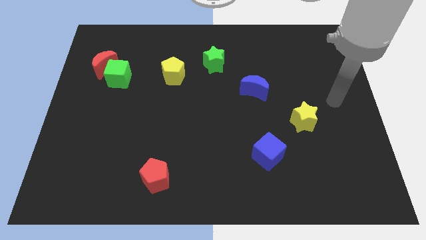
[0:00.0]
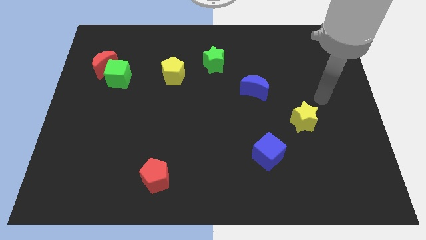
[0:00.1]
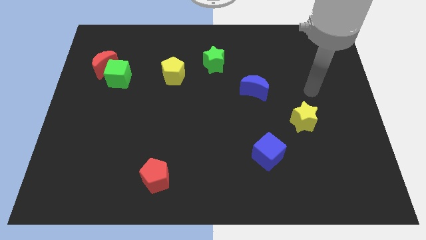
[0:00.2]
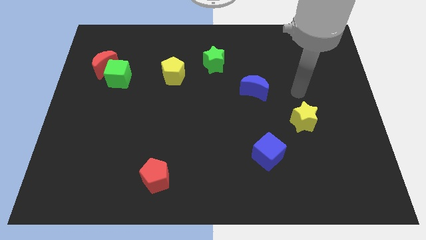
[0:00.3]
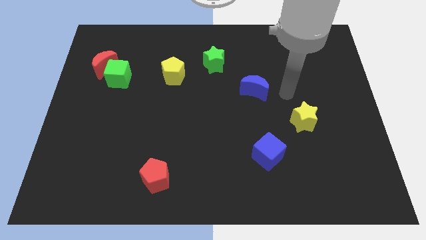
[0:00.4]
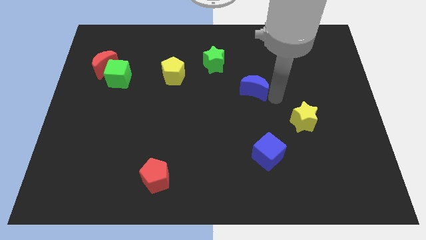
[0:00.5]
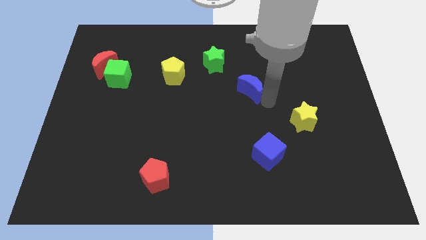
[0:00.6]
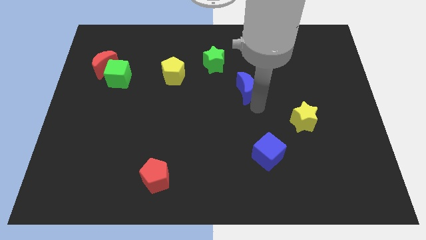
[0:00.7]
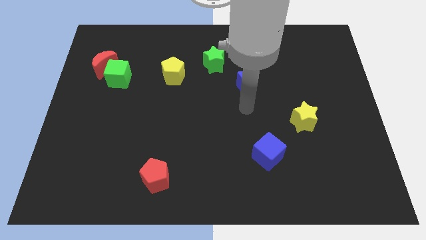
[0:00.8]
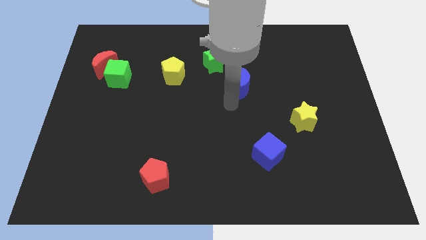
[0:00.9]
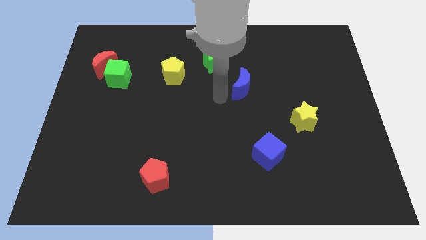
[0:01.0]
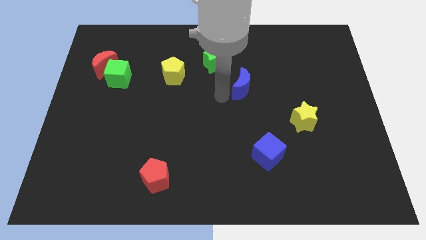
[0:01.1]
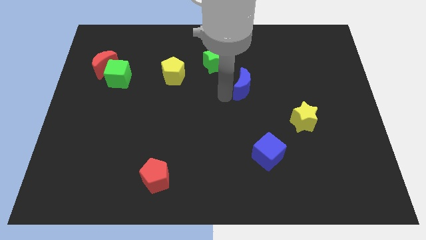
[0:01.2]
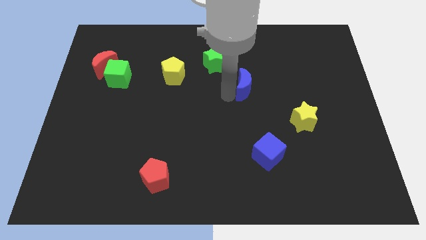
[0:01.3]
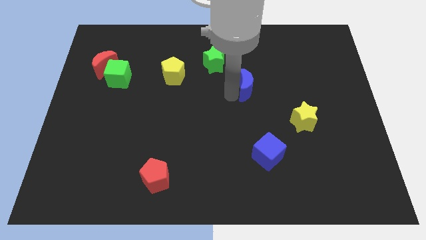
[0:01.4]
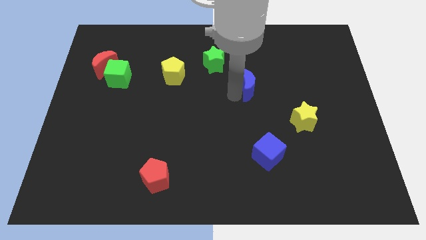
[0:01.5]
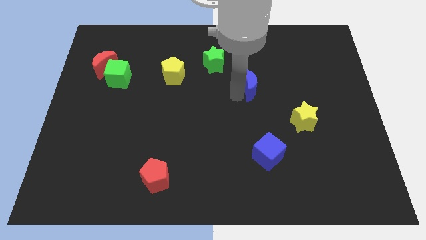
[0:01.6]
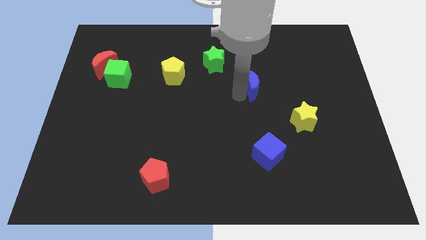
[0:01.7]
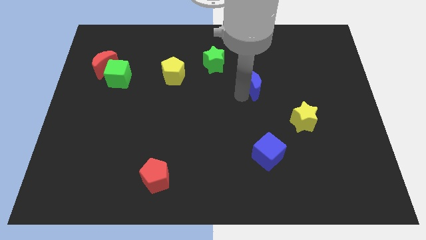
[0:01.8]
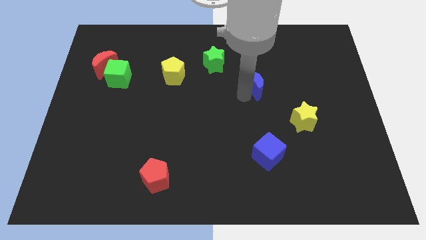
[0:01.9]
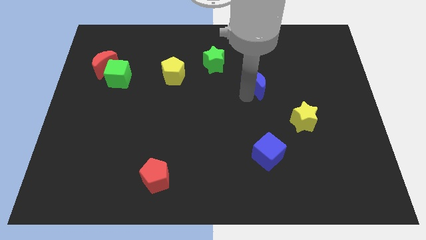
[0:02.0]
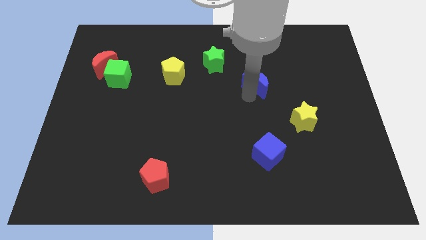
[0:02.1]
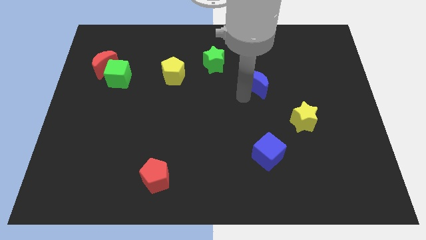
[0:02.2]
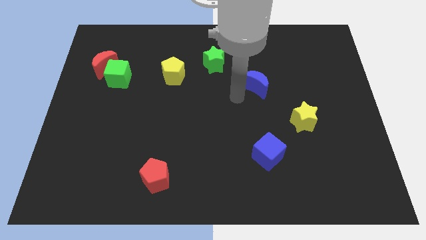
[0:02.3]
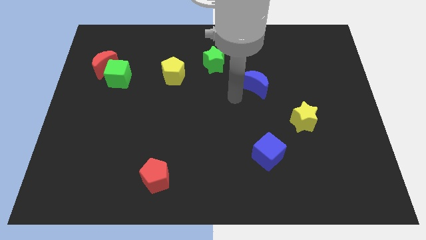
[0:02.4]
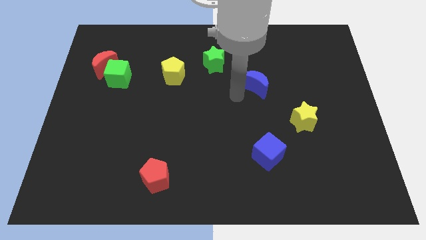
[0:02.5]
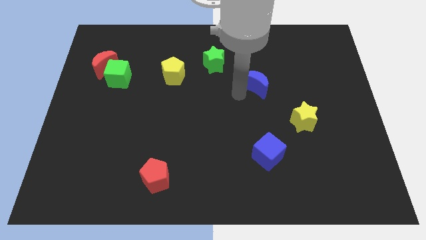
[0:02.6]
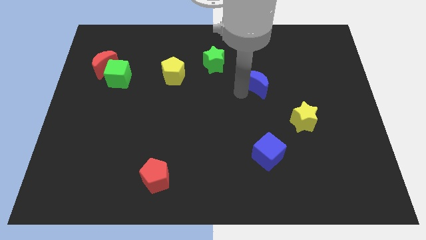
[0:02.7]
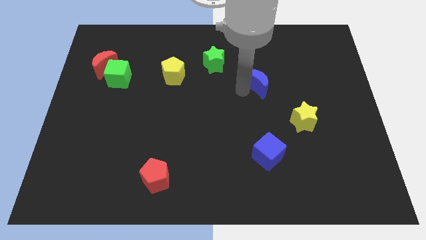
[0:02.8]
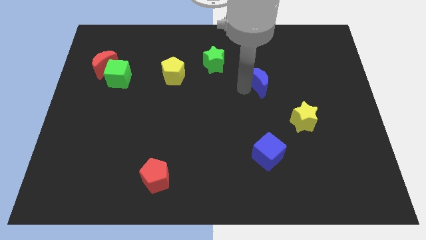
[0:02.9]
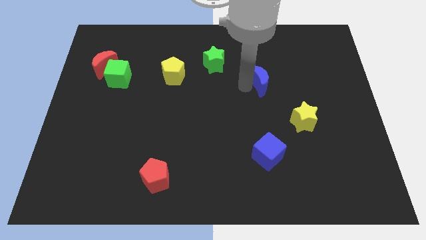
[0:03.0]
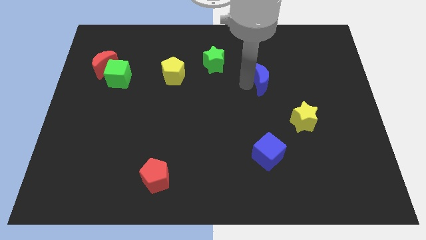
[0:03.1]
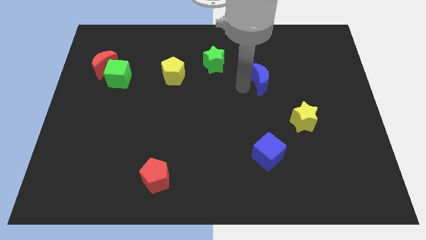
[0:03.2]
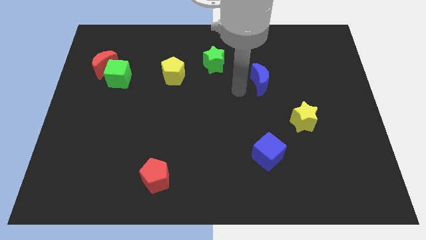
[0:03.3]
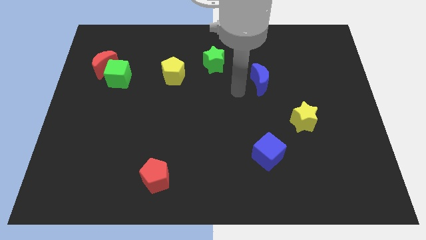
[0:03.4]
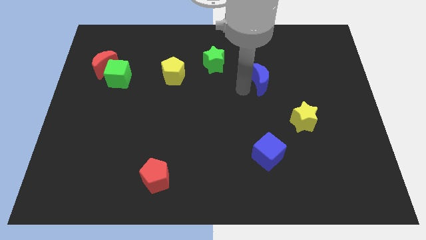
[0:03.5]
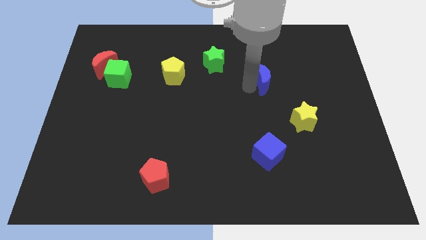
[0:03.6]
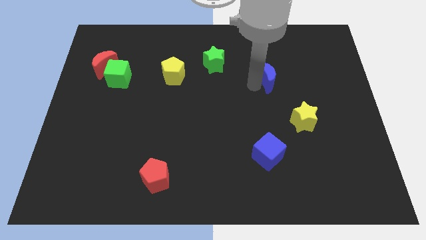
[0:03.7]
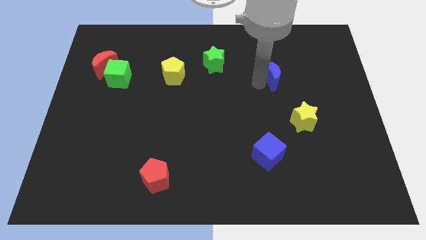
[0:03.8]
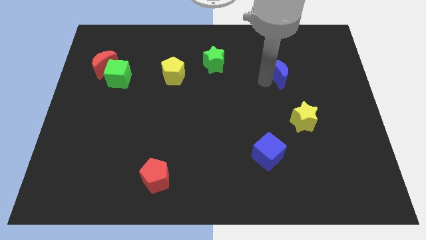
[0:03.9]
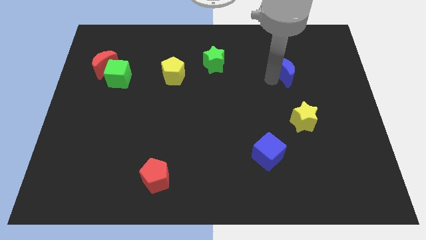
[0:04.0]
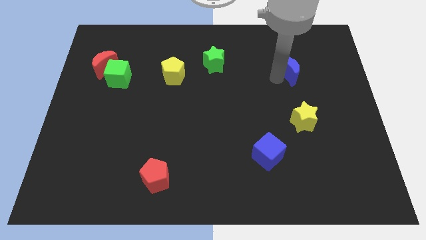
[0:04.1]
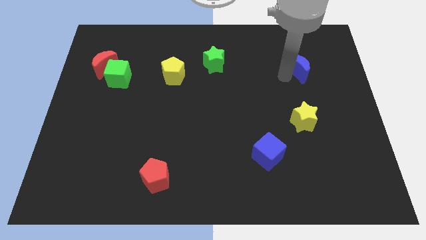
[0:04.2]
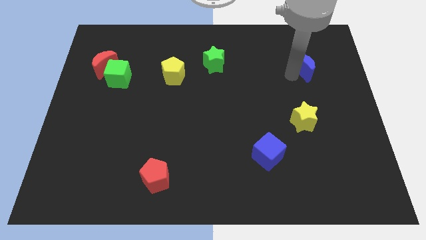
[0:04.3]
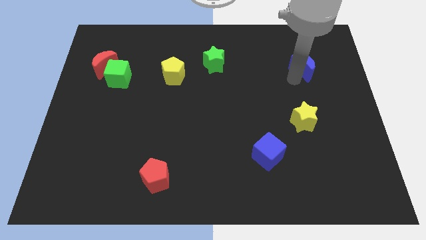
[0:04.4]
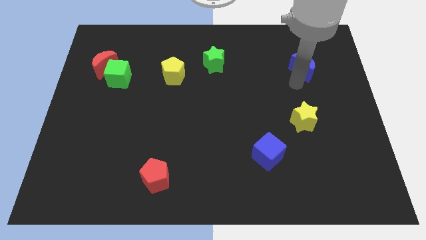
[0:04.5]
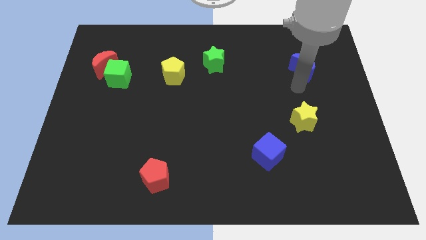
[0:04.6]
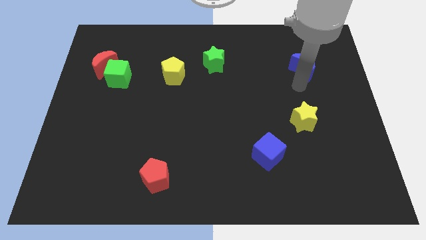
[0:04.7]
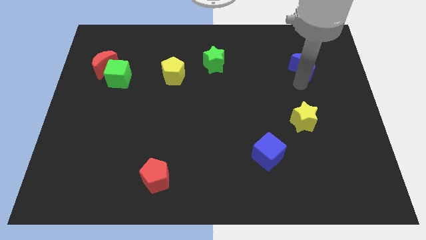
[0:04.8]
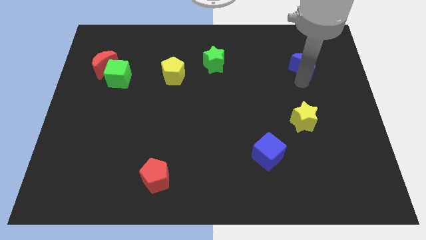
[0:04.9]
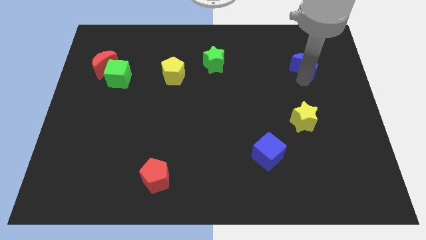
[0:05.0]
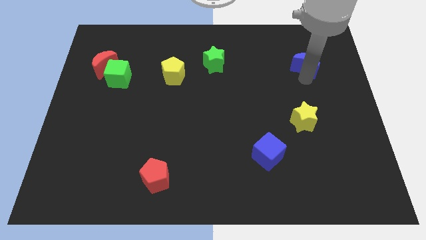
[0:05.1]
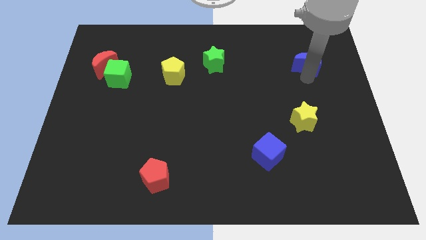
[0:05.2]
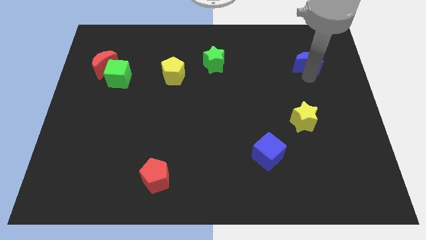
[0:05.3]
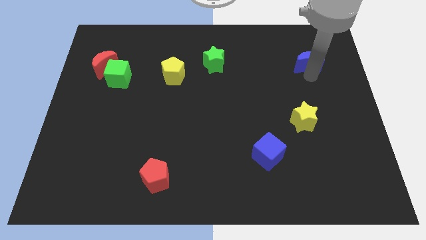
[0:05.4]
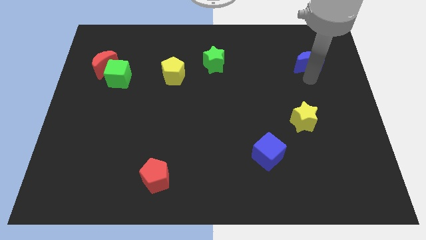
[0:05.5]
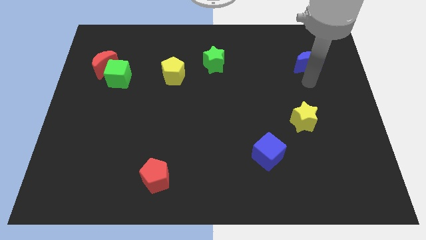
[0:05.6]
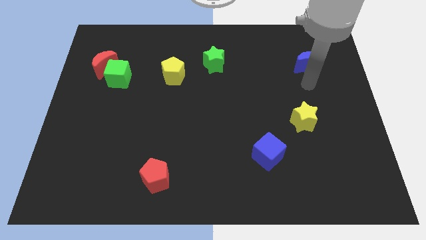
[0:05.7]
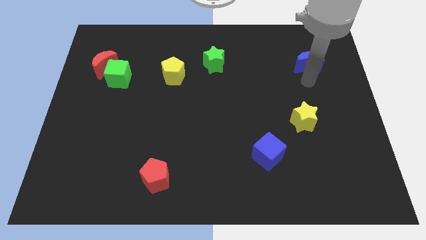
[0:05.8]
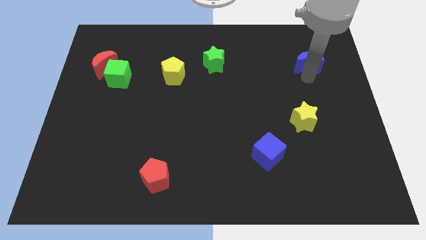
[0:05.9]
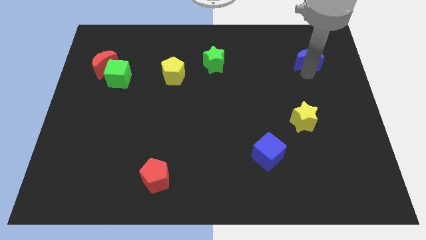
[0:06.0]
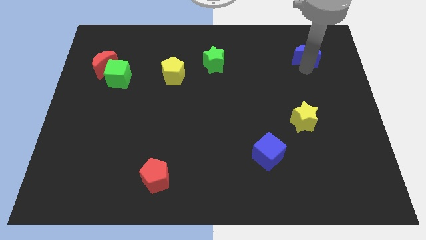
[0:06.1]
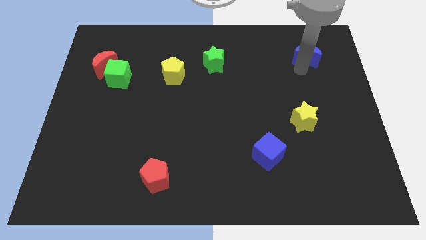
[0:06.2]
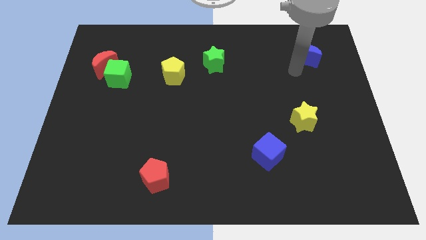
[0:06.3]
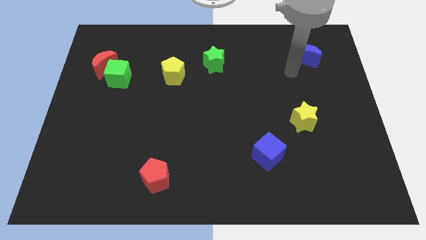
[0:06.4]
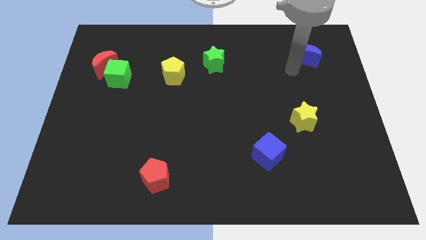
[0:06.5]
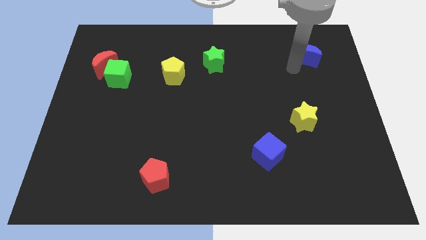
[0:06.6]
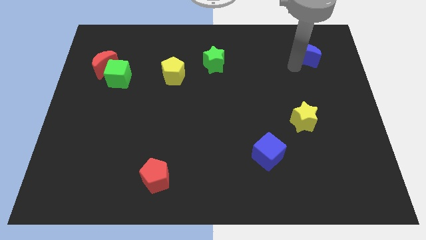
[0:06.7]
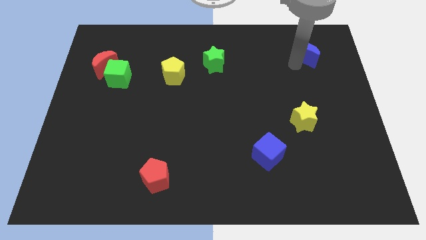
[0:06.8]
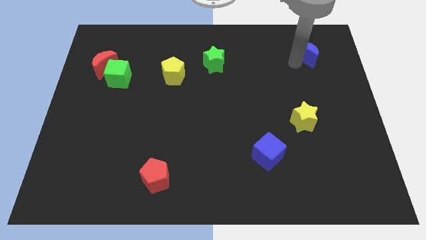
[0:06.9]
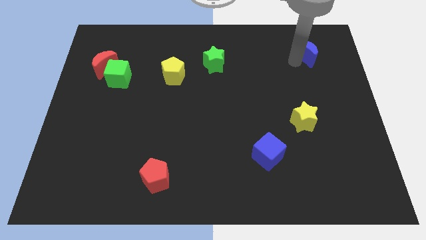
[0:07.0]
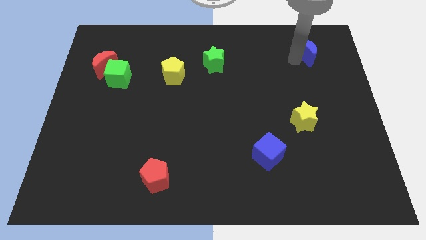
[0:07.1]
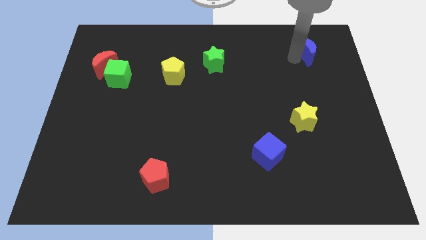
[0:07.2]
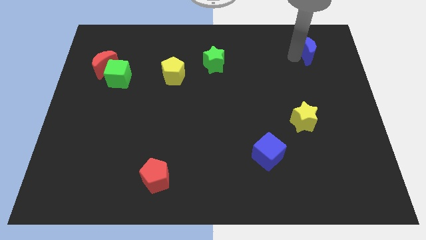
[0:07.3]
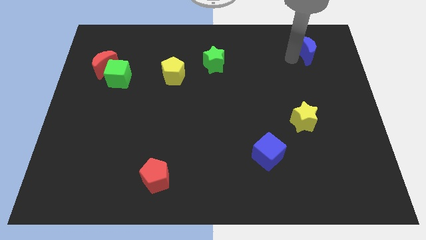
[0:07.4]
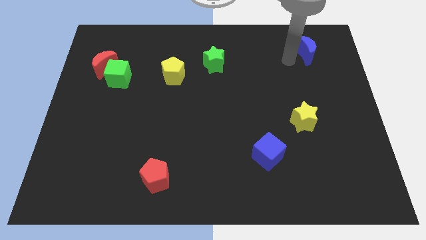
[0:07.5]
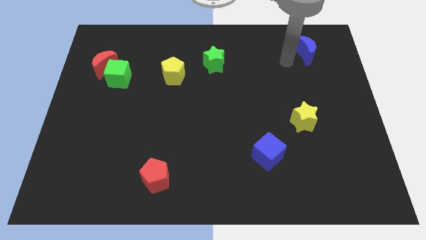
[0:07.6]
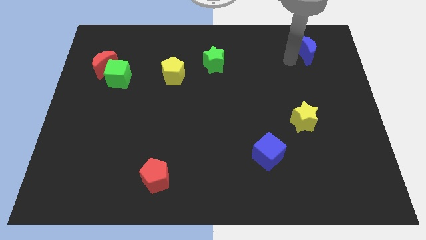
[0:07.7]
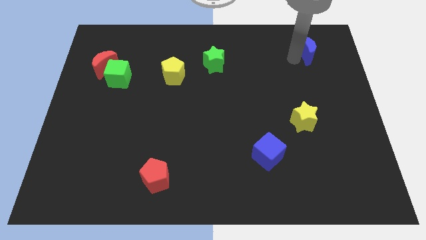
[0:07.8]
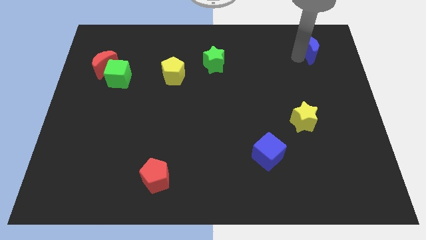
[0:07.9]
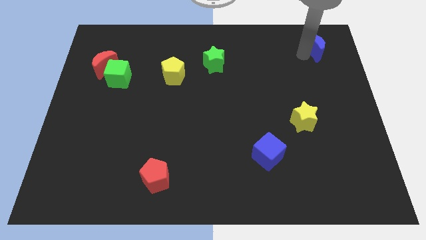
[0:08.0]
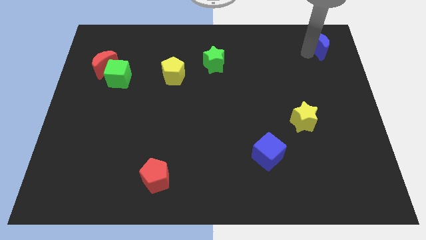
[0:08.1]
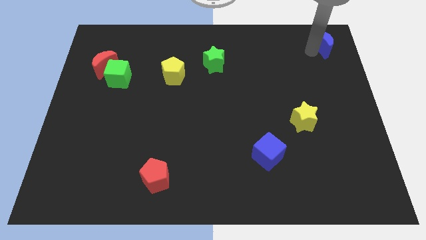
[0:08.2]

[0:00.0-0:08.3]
slide the blue moon to the top right of the board
